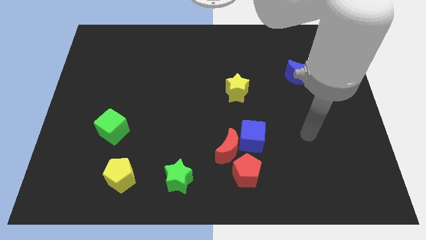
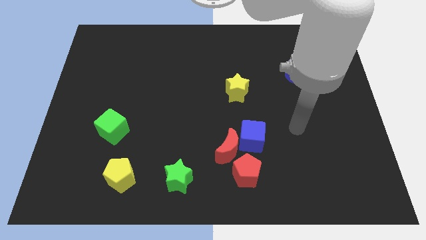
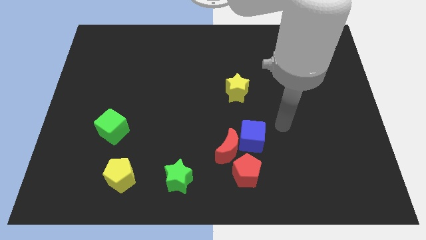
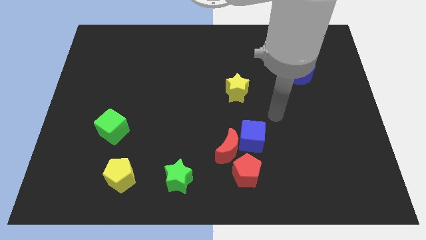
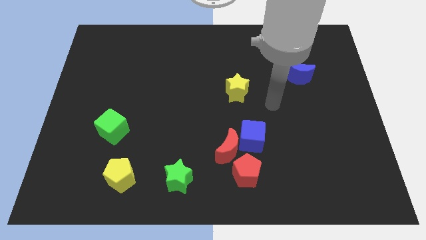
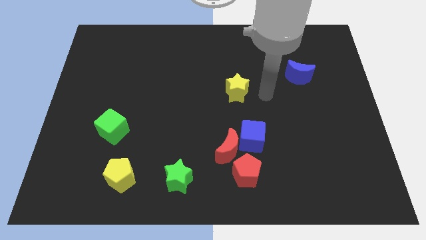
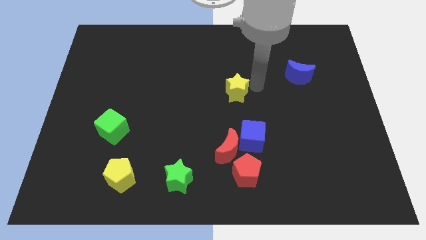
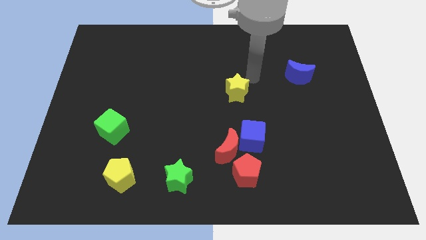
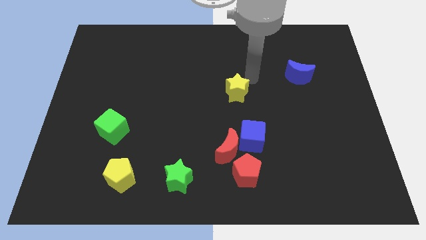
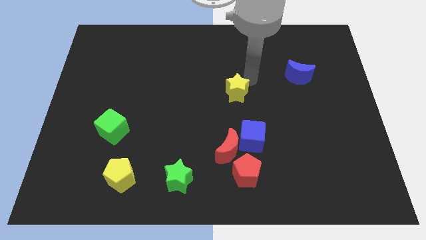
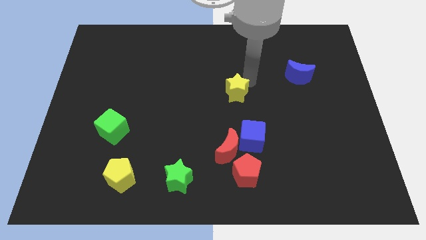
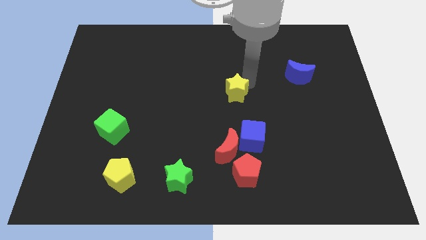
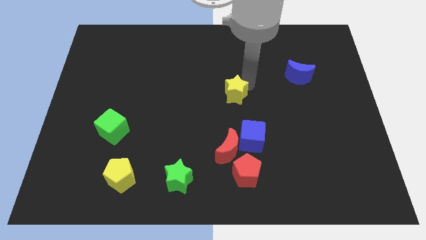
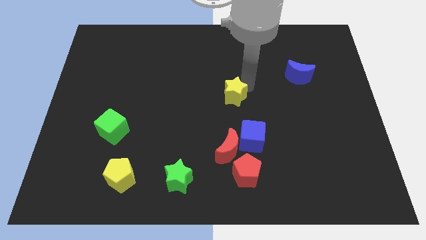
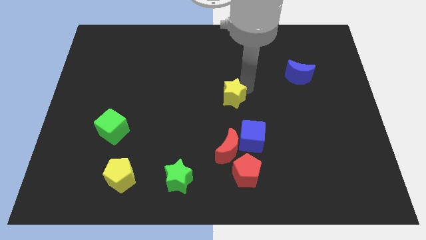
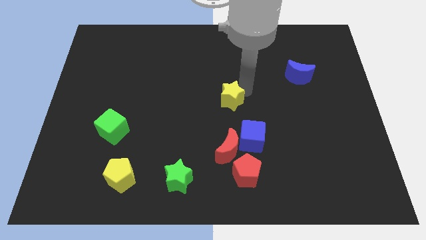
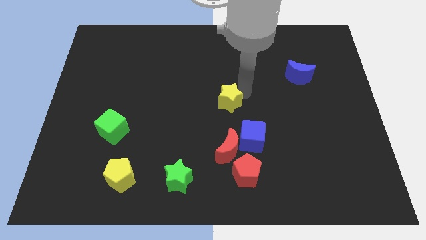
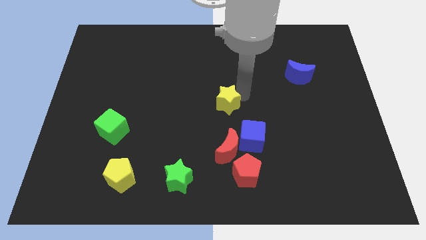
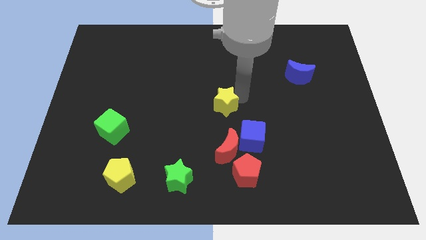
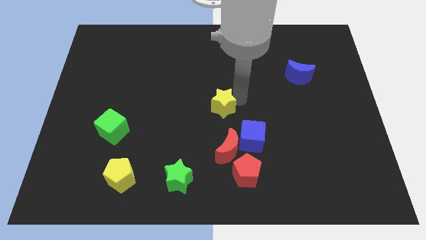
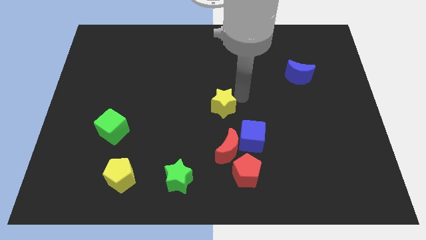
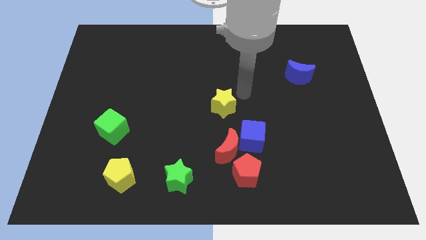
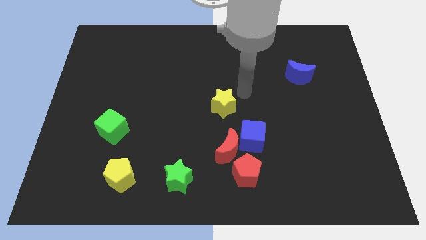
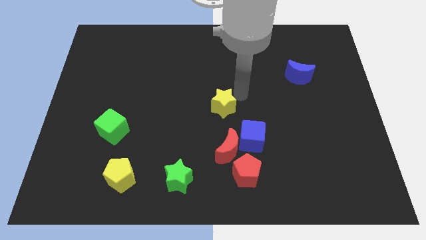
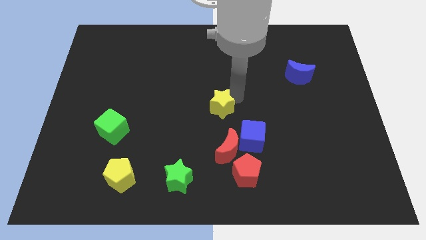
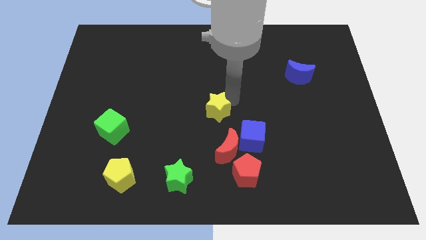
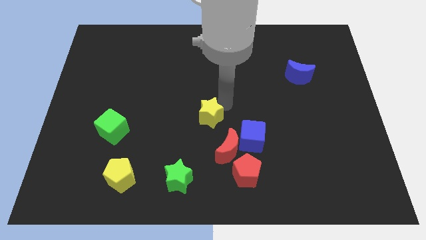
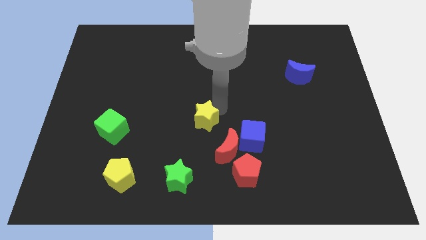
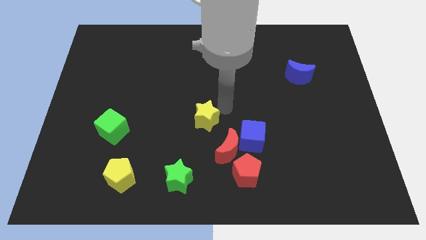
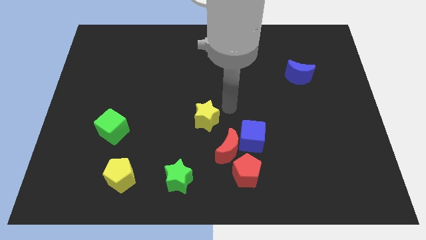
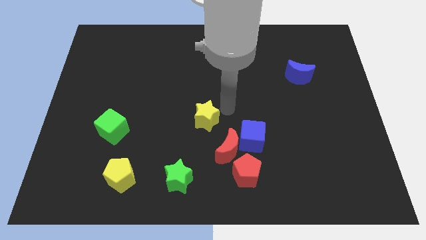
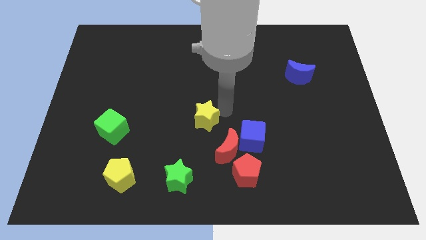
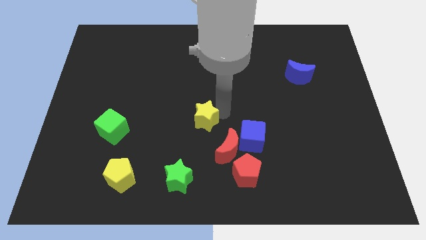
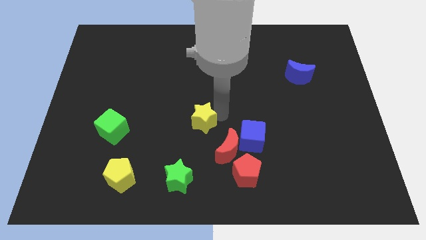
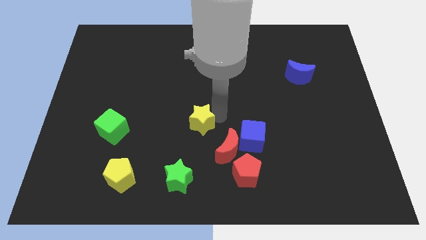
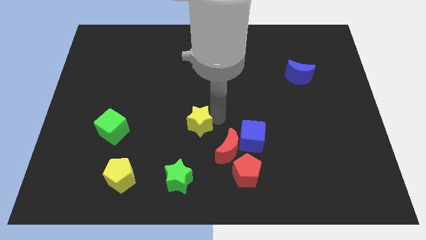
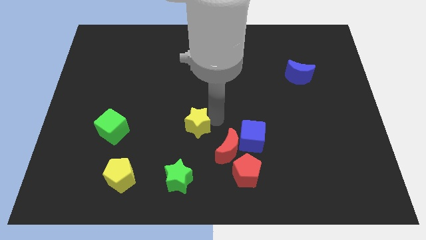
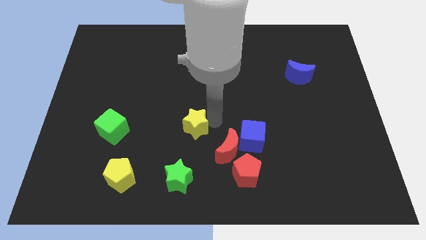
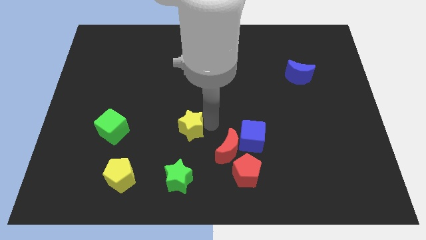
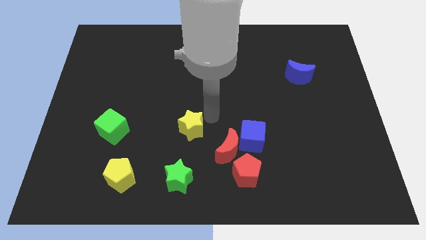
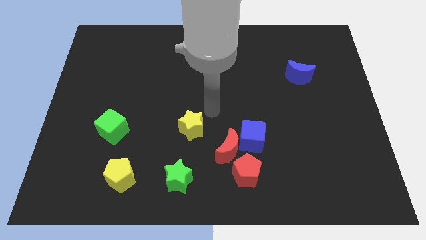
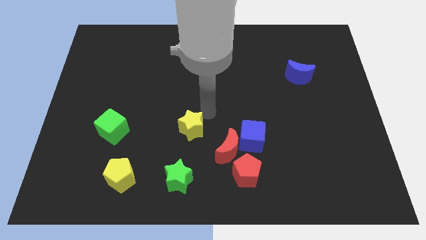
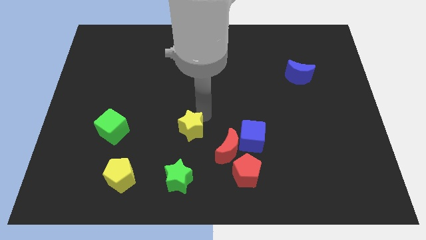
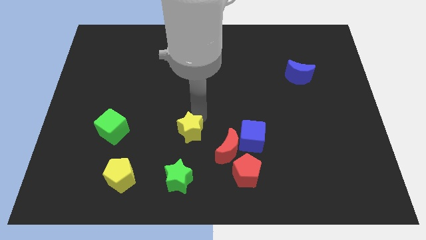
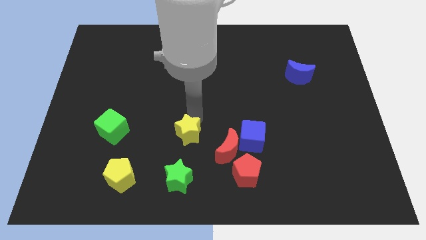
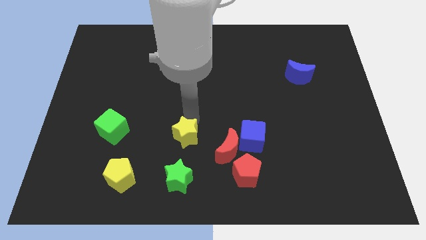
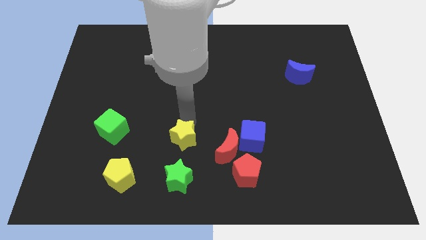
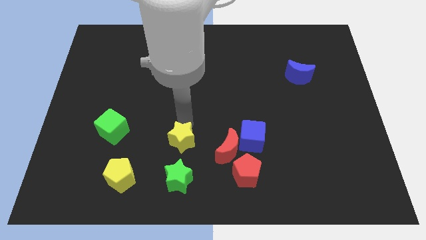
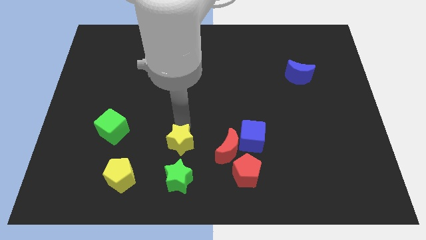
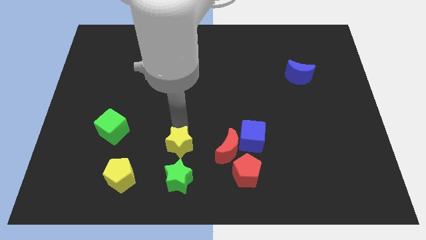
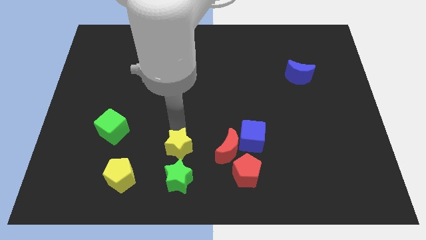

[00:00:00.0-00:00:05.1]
move the yellow star to the top left side of the green star

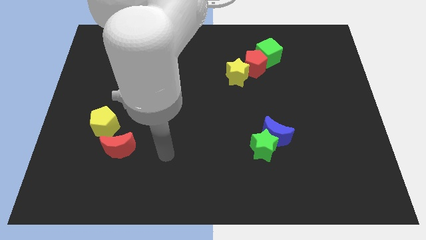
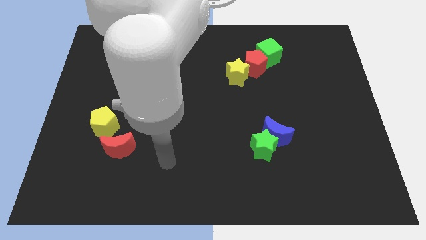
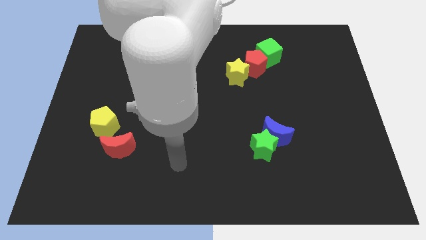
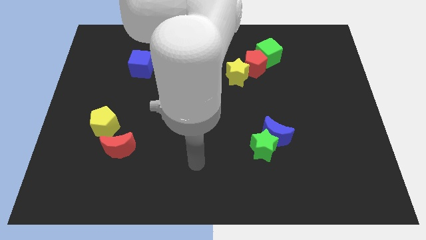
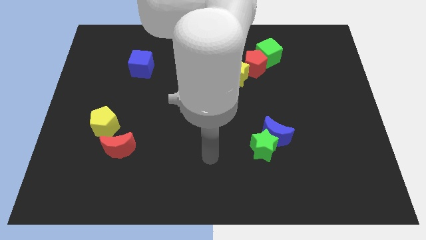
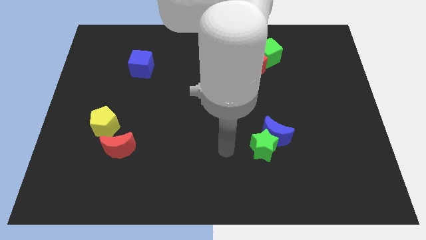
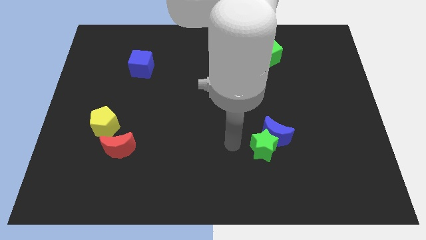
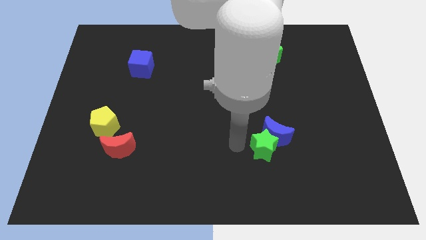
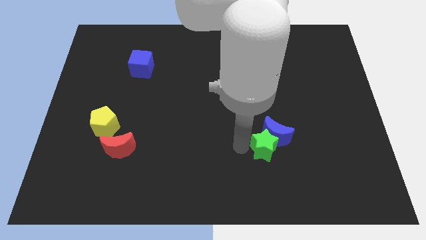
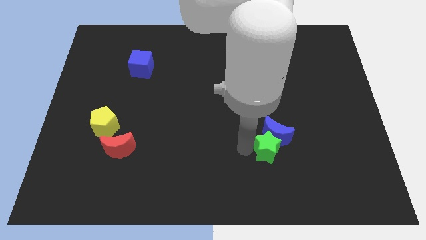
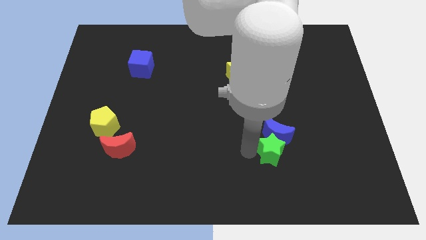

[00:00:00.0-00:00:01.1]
move the green star to the bottom right of the blue moon

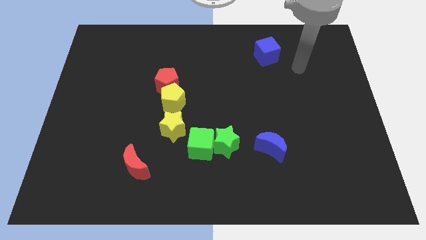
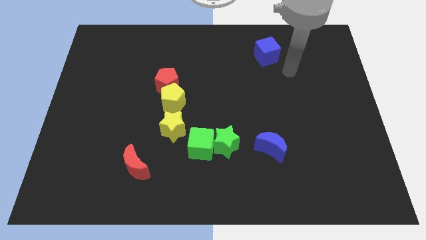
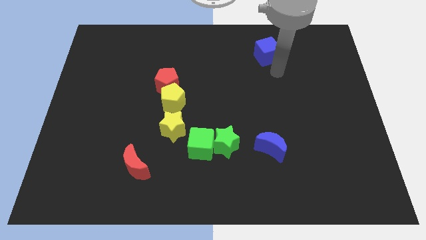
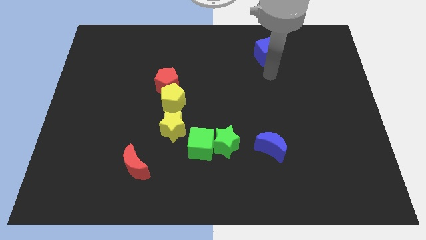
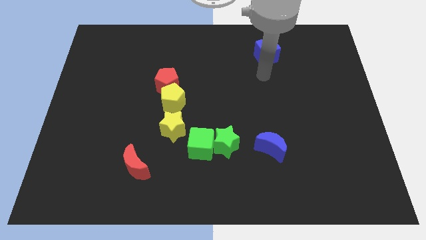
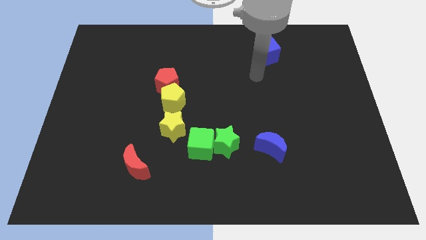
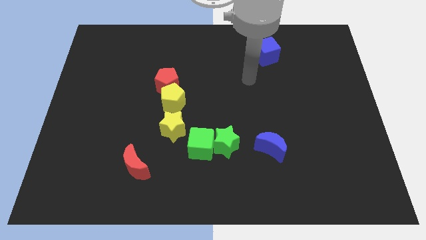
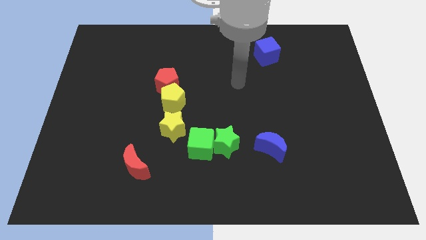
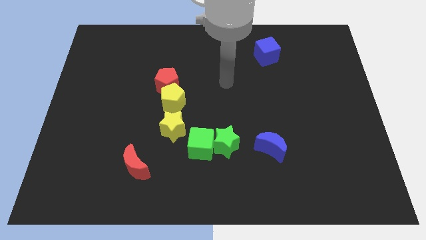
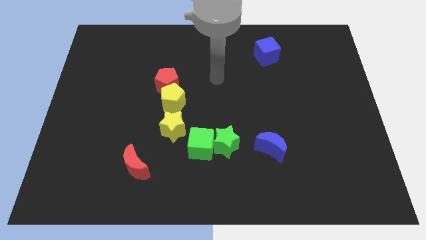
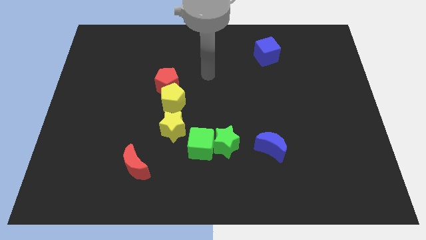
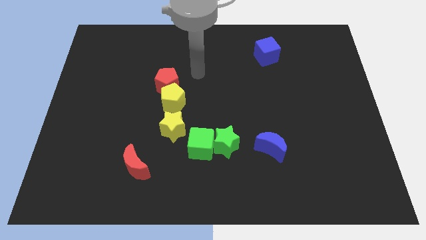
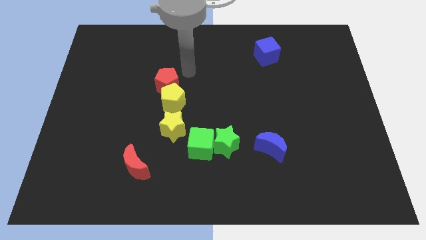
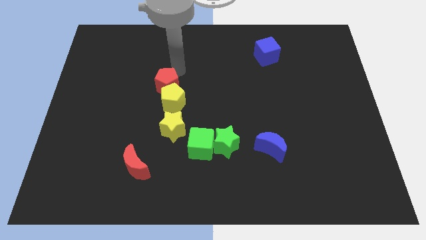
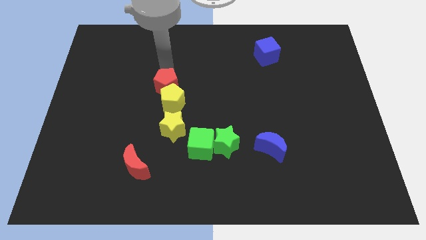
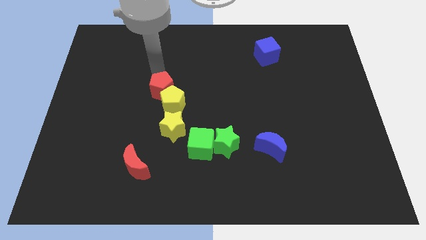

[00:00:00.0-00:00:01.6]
slide the yellow pentagon right of the red pentagon
